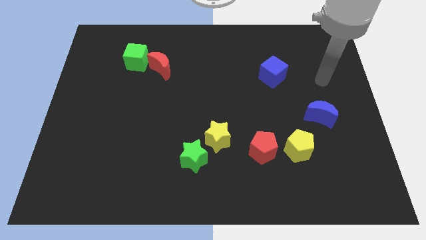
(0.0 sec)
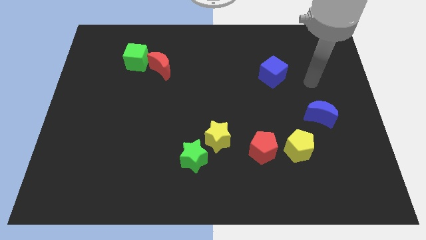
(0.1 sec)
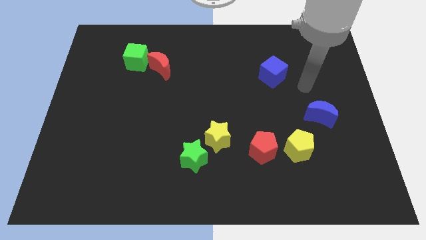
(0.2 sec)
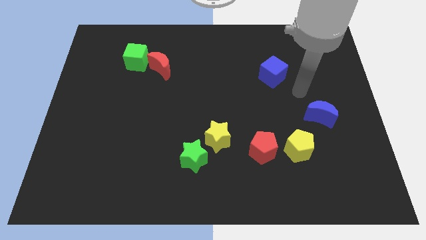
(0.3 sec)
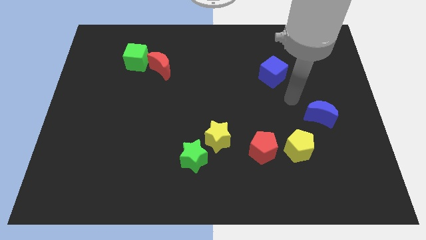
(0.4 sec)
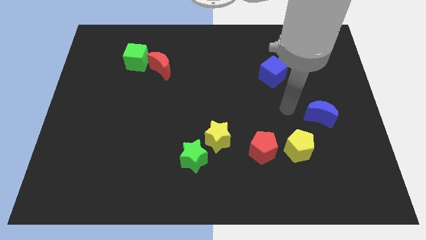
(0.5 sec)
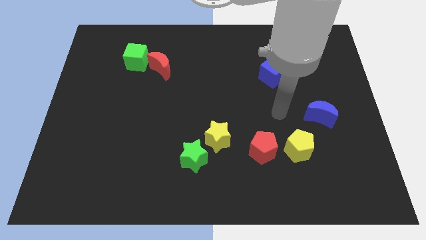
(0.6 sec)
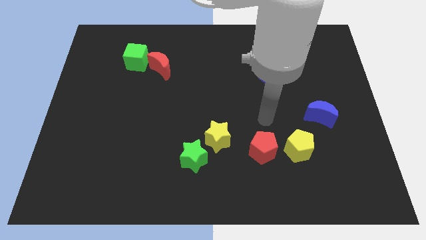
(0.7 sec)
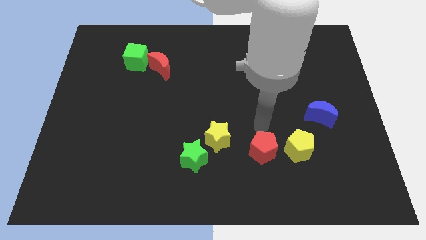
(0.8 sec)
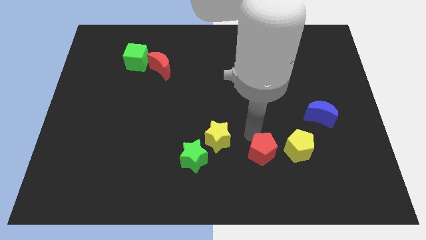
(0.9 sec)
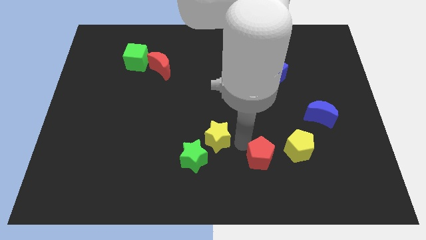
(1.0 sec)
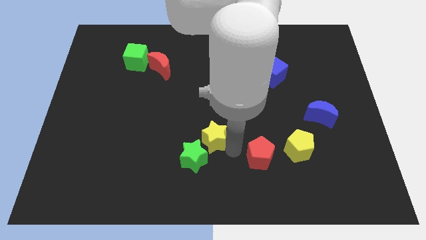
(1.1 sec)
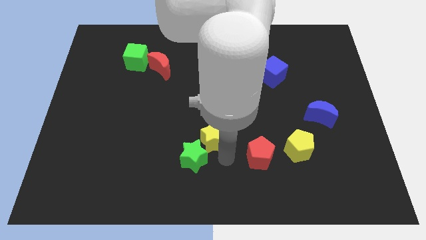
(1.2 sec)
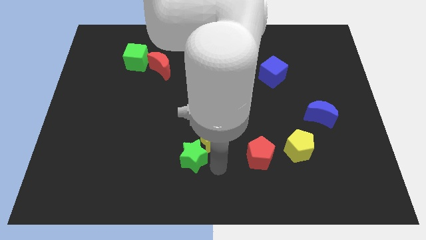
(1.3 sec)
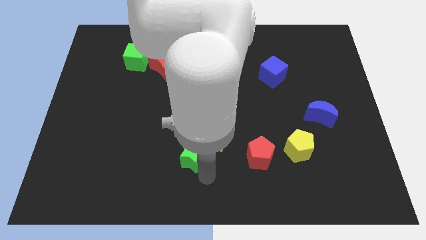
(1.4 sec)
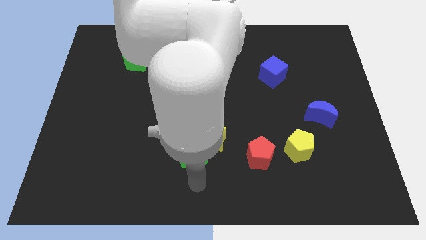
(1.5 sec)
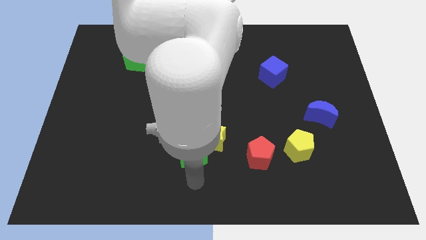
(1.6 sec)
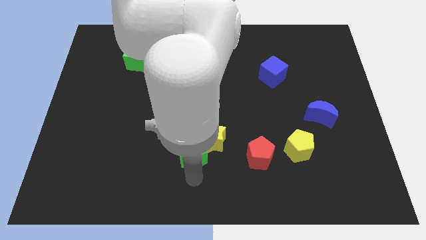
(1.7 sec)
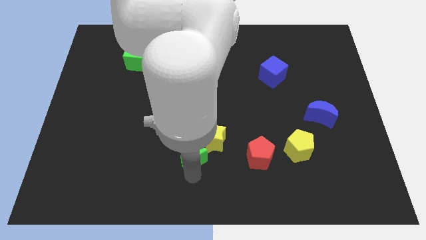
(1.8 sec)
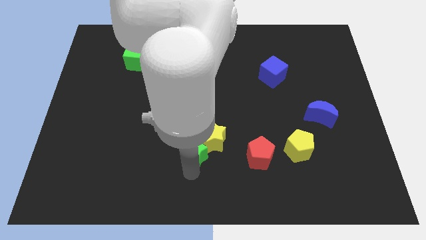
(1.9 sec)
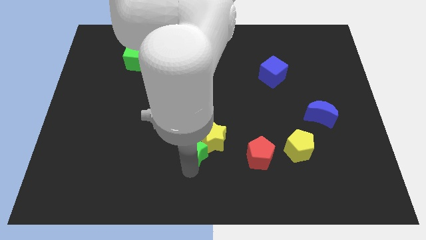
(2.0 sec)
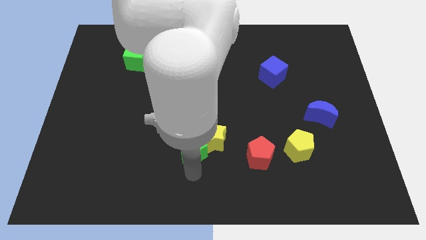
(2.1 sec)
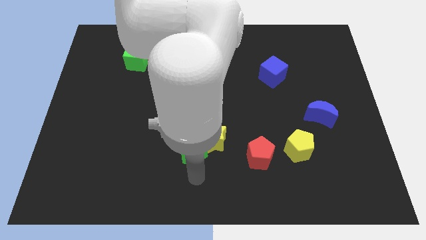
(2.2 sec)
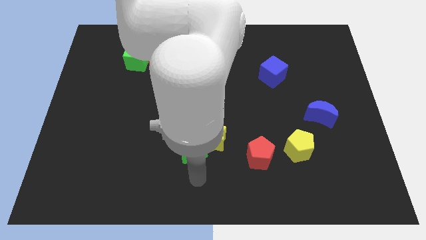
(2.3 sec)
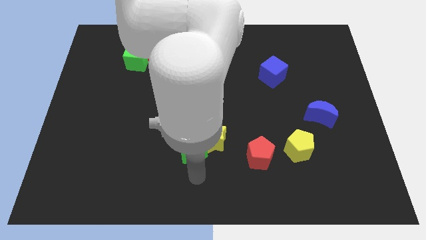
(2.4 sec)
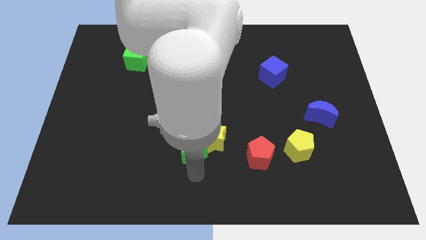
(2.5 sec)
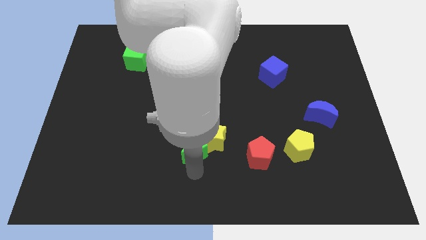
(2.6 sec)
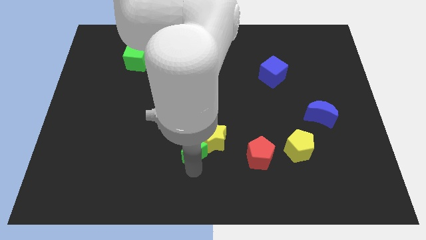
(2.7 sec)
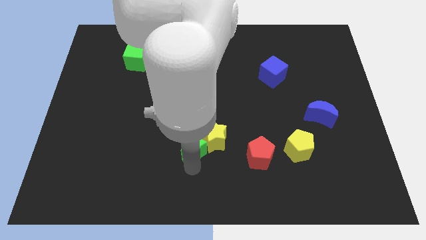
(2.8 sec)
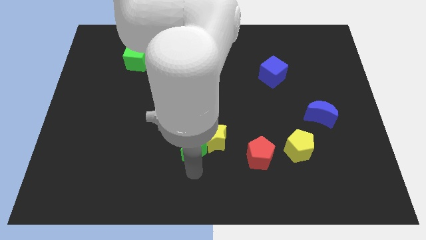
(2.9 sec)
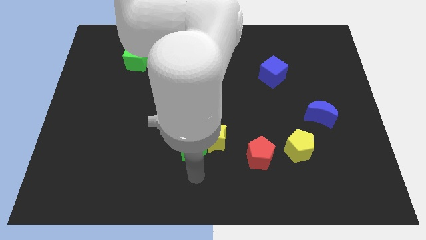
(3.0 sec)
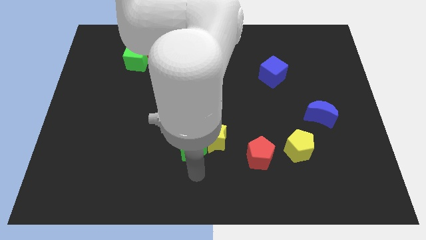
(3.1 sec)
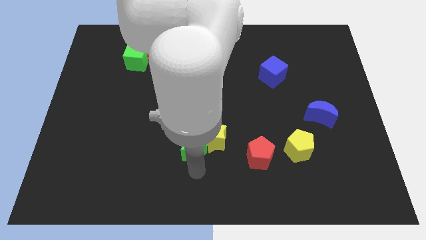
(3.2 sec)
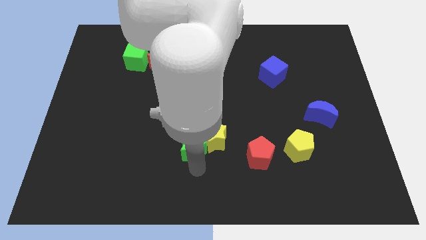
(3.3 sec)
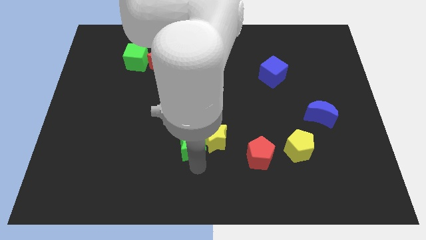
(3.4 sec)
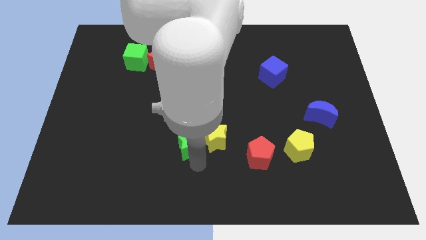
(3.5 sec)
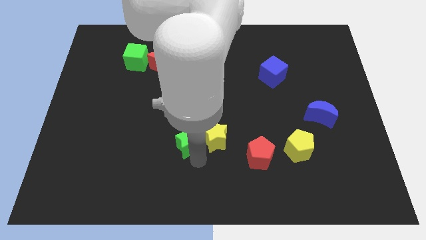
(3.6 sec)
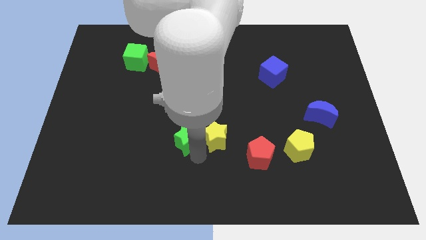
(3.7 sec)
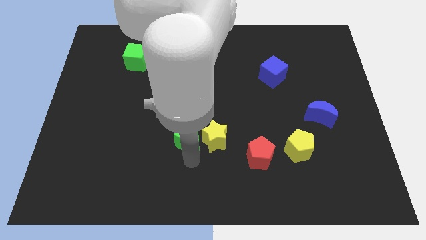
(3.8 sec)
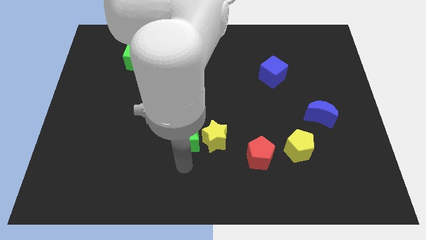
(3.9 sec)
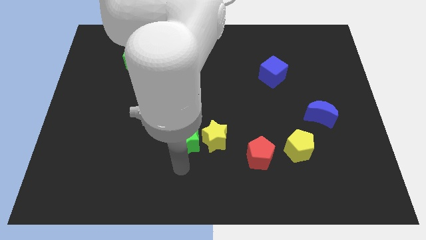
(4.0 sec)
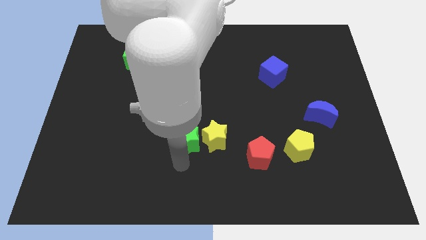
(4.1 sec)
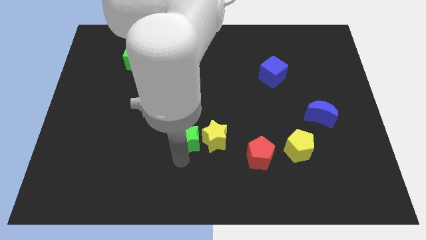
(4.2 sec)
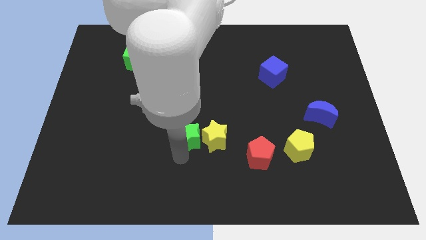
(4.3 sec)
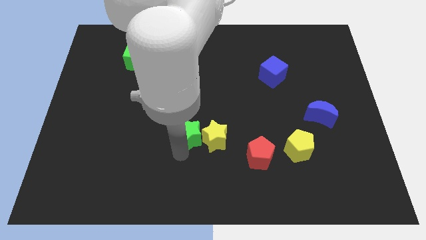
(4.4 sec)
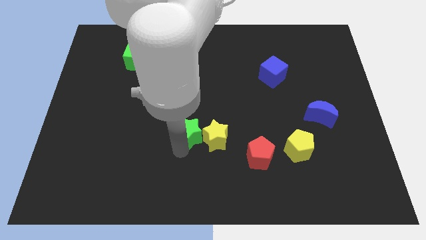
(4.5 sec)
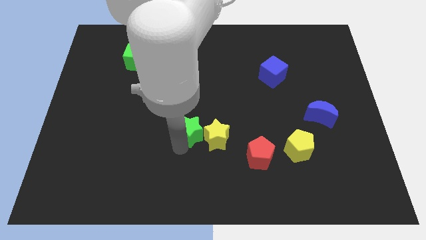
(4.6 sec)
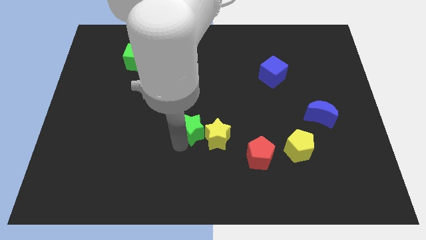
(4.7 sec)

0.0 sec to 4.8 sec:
move the green star slightly upwards

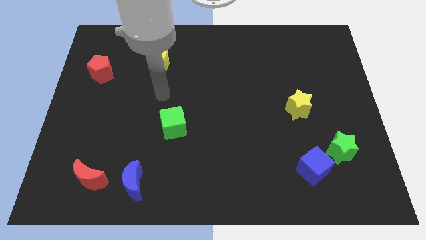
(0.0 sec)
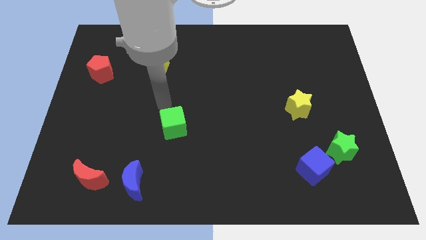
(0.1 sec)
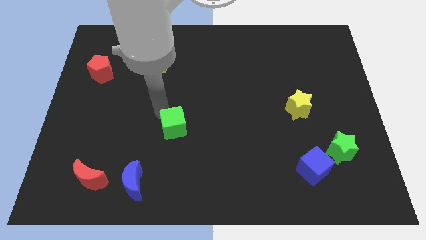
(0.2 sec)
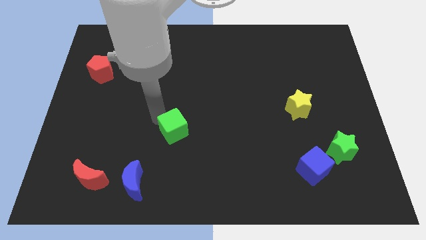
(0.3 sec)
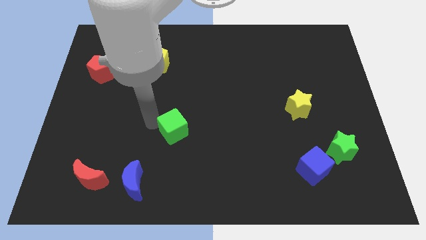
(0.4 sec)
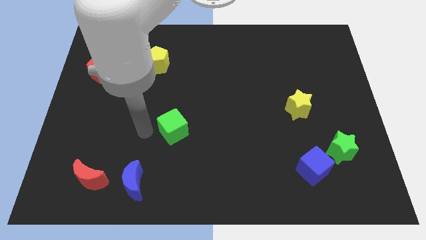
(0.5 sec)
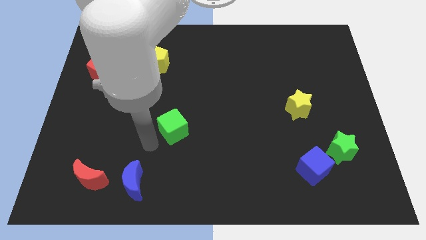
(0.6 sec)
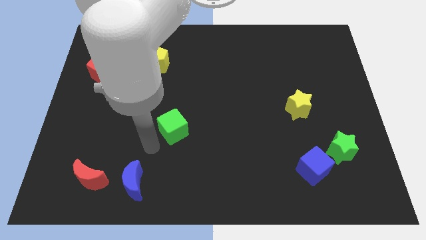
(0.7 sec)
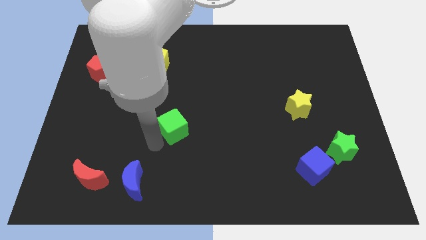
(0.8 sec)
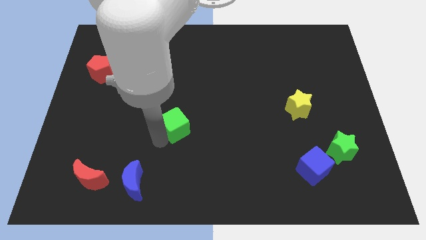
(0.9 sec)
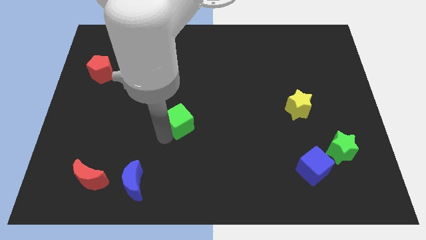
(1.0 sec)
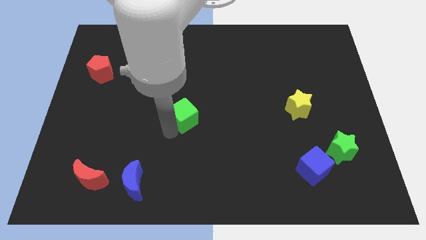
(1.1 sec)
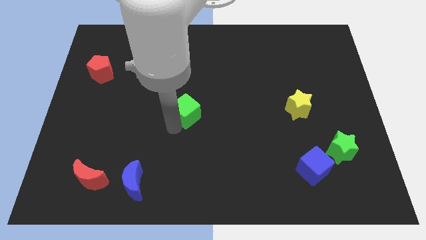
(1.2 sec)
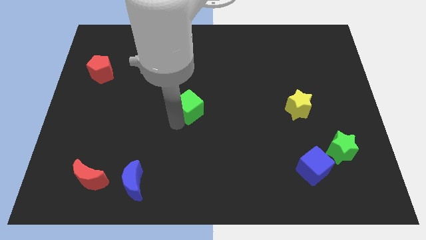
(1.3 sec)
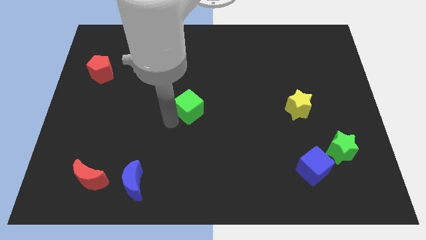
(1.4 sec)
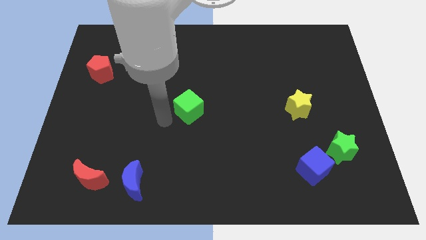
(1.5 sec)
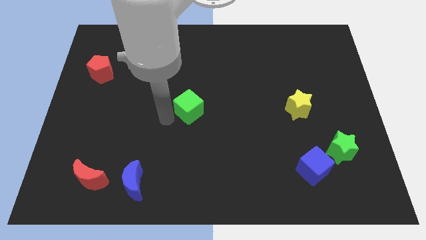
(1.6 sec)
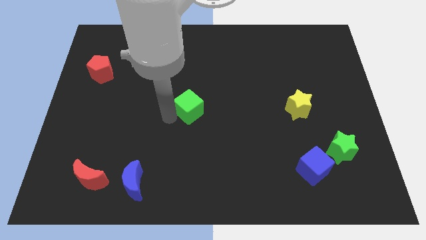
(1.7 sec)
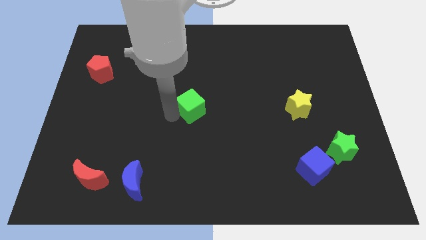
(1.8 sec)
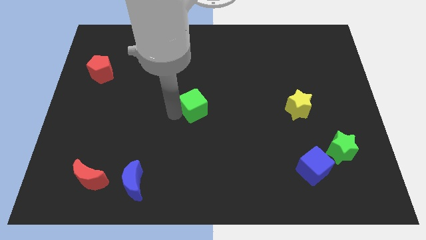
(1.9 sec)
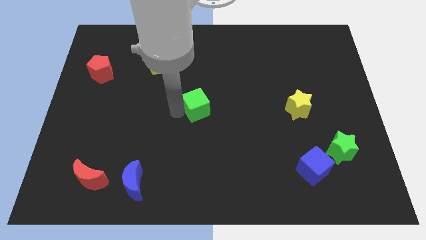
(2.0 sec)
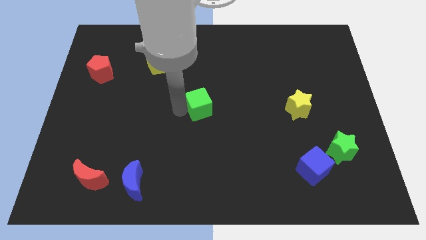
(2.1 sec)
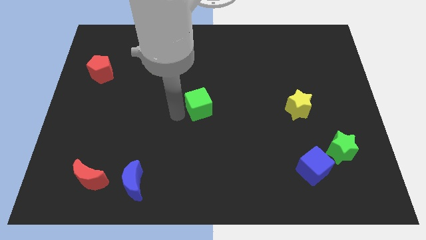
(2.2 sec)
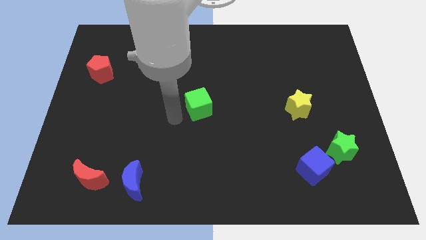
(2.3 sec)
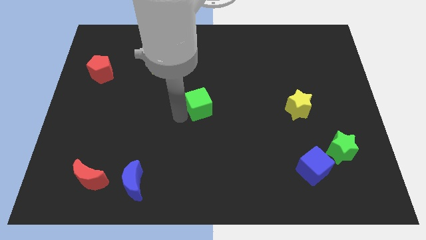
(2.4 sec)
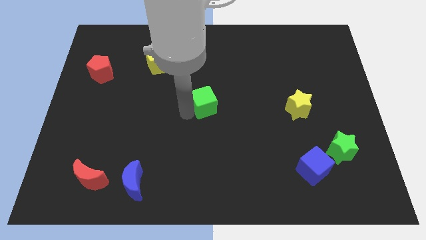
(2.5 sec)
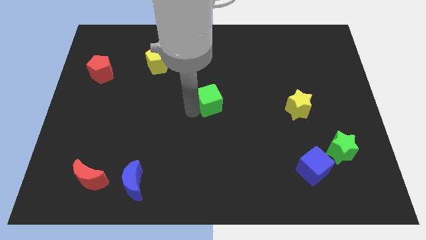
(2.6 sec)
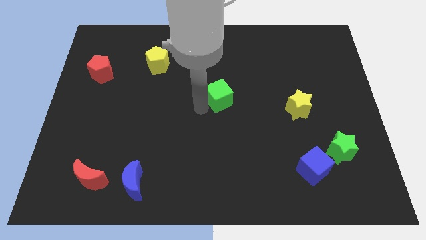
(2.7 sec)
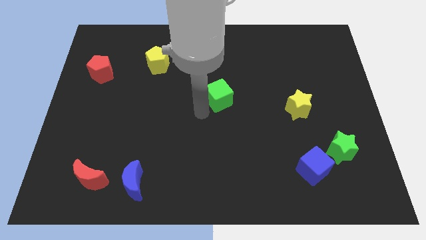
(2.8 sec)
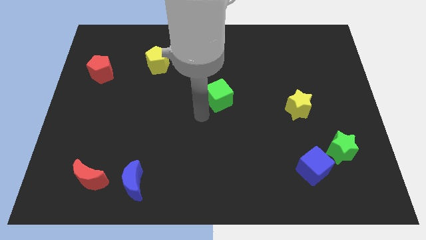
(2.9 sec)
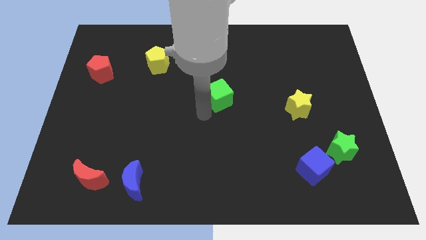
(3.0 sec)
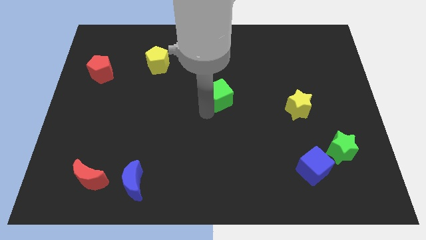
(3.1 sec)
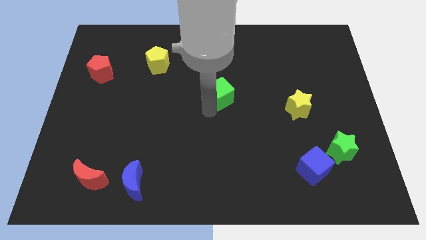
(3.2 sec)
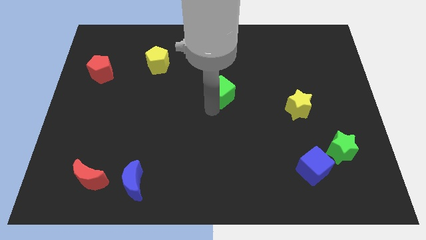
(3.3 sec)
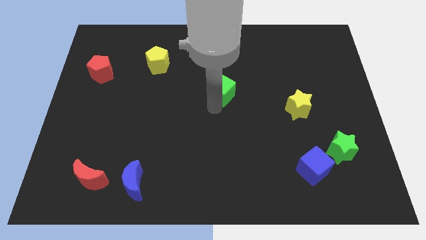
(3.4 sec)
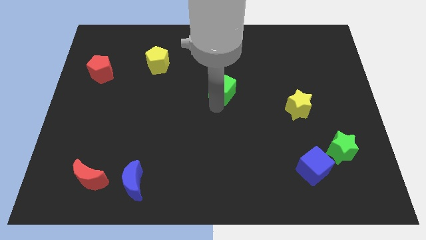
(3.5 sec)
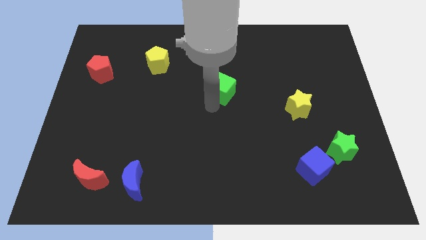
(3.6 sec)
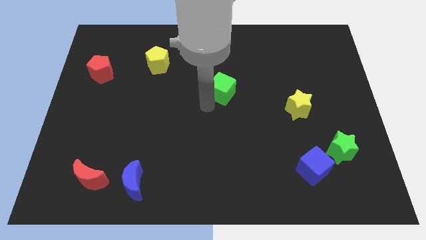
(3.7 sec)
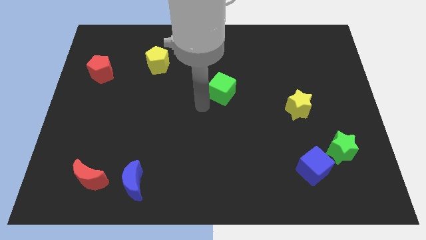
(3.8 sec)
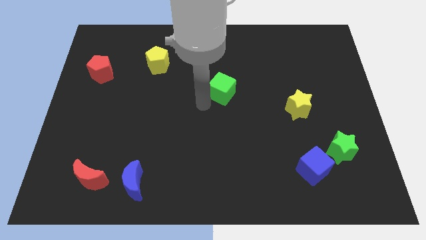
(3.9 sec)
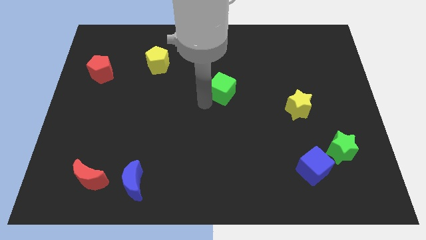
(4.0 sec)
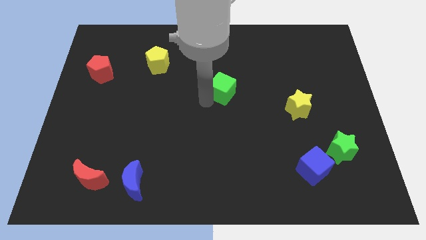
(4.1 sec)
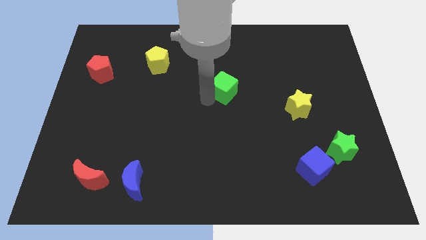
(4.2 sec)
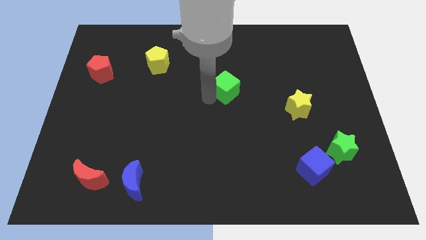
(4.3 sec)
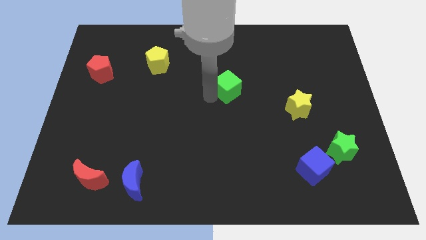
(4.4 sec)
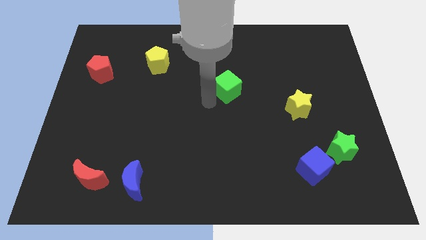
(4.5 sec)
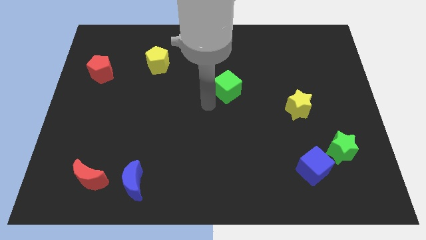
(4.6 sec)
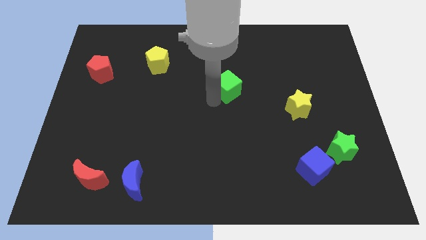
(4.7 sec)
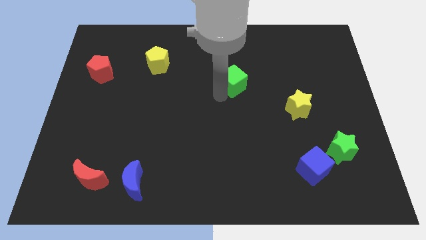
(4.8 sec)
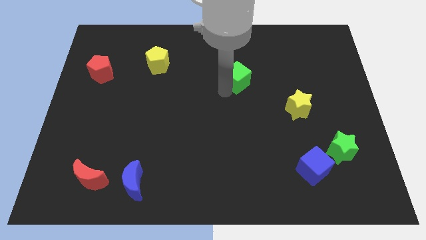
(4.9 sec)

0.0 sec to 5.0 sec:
push the green cube up and then right
